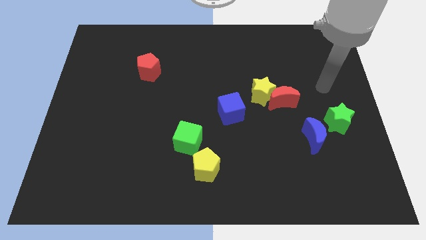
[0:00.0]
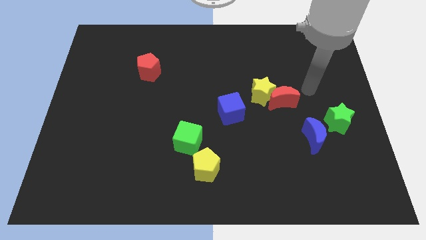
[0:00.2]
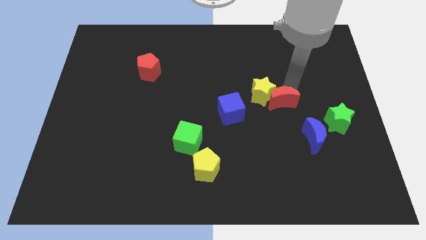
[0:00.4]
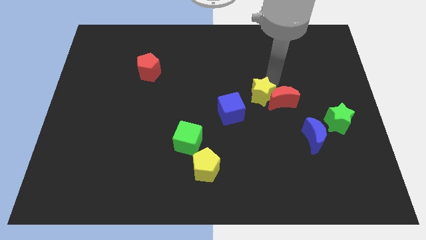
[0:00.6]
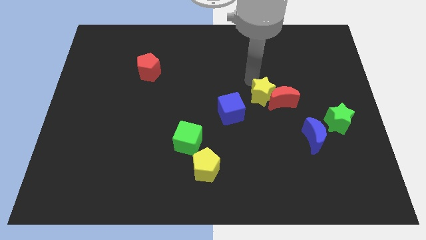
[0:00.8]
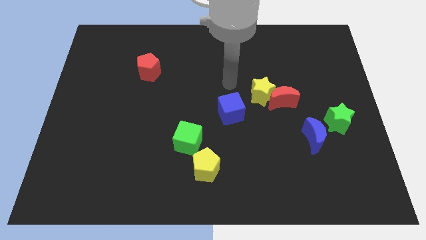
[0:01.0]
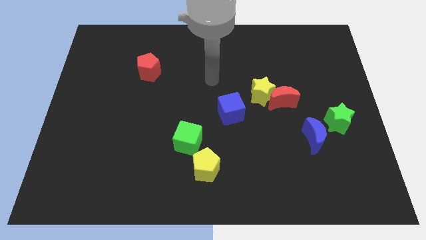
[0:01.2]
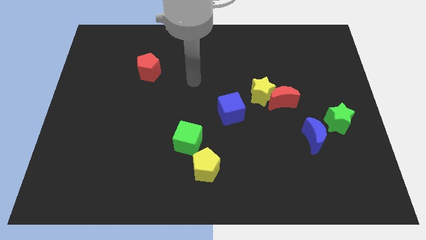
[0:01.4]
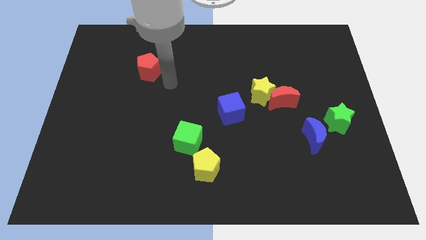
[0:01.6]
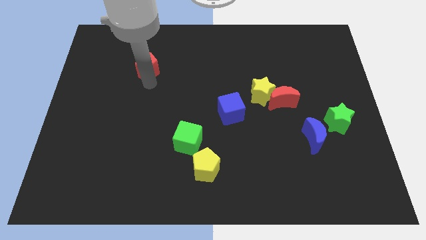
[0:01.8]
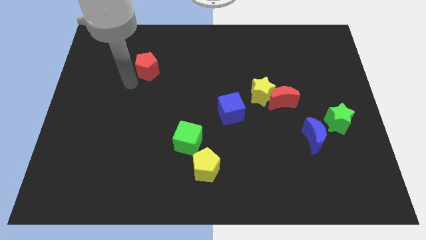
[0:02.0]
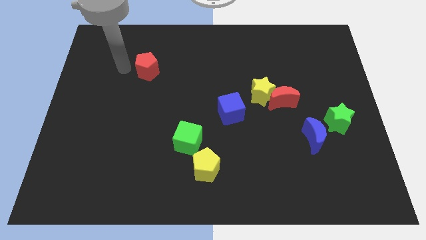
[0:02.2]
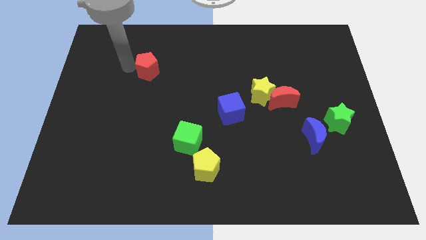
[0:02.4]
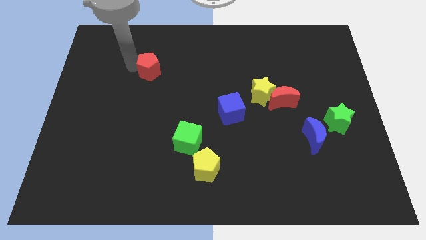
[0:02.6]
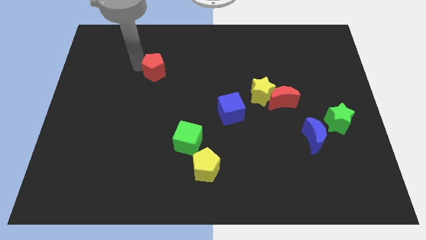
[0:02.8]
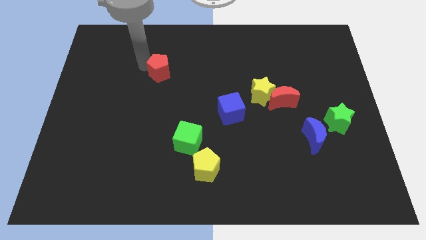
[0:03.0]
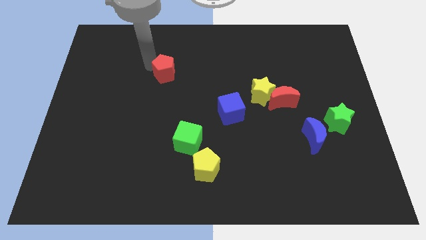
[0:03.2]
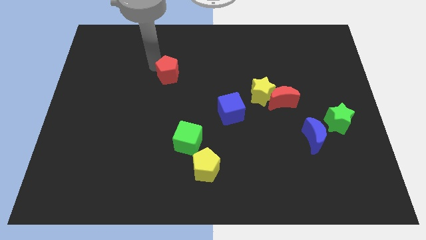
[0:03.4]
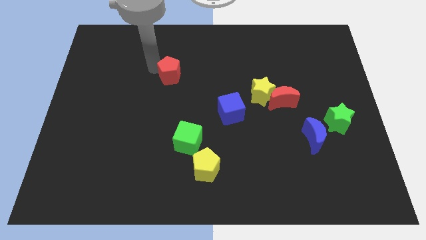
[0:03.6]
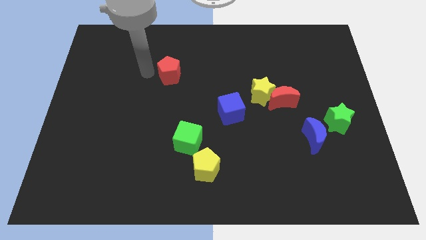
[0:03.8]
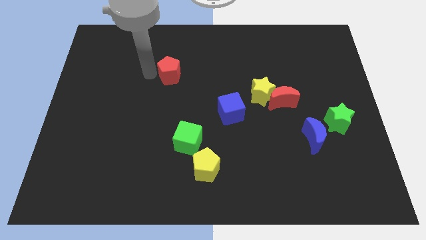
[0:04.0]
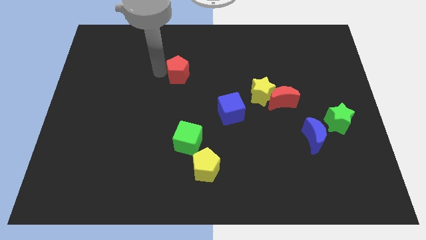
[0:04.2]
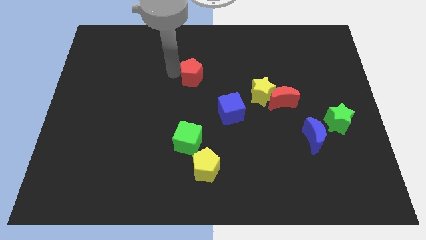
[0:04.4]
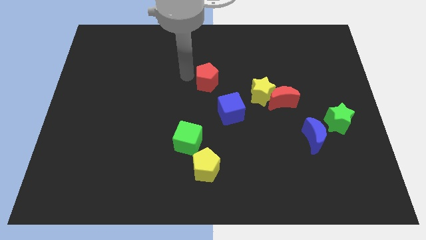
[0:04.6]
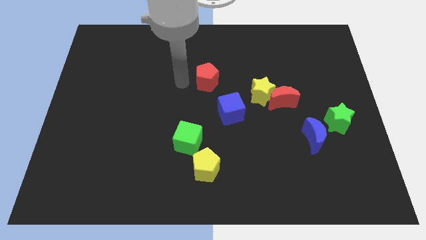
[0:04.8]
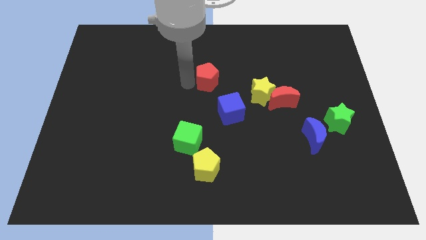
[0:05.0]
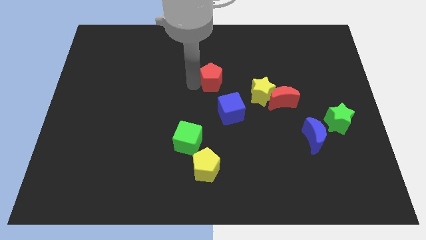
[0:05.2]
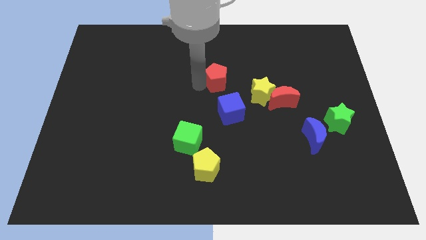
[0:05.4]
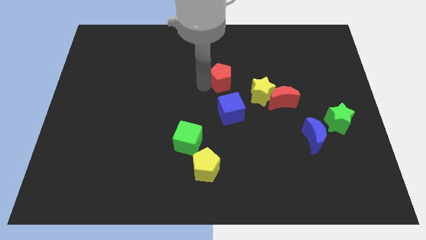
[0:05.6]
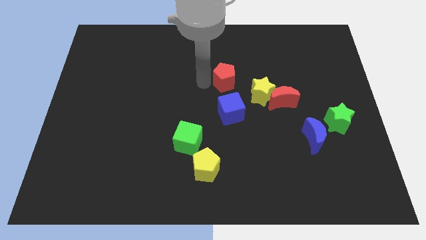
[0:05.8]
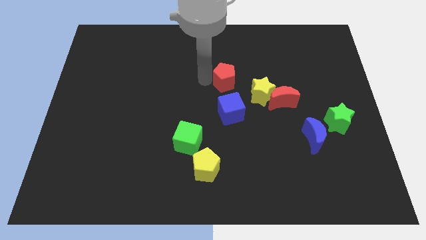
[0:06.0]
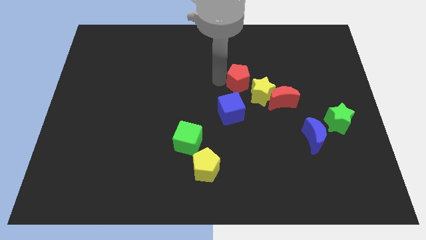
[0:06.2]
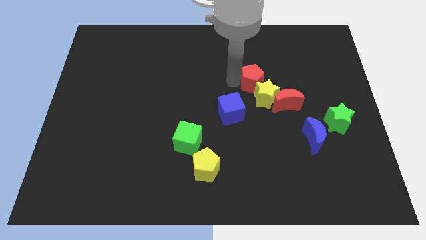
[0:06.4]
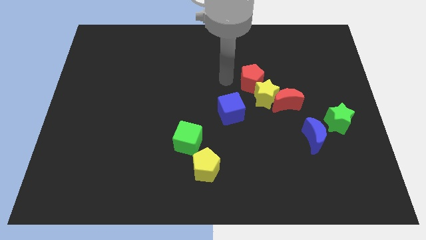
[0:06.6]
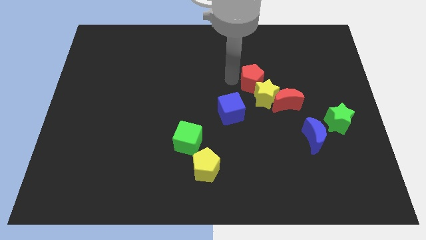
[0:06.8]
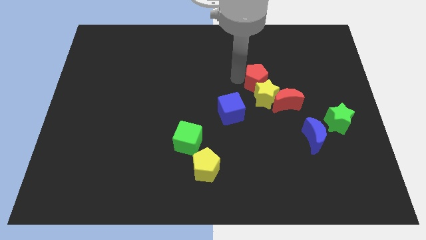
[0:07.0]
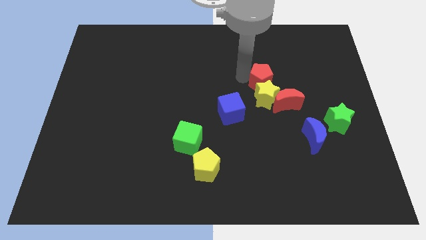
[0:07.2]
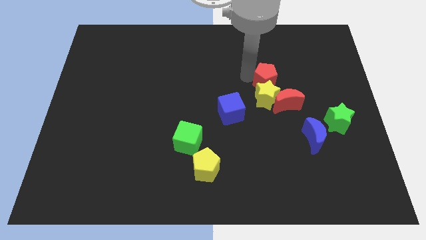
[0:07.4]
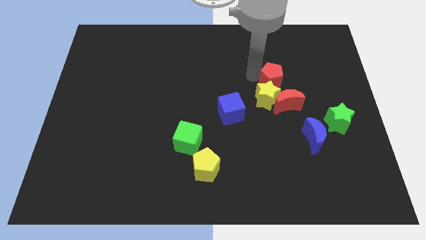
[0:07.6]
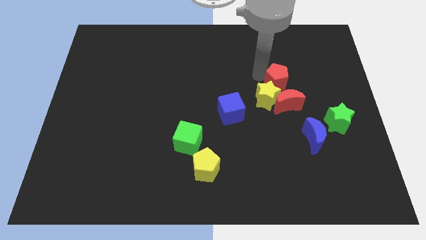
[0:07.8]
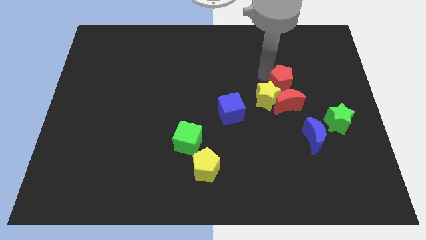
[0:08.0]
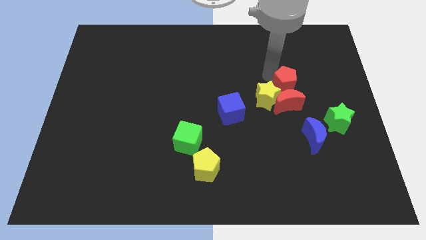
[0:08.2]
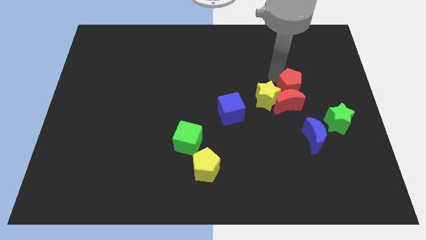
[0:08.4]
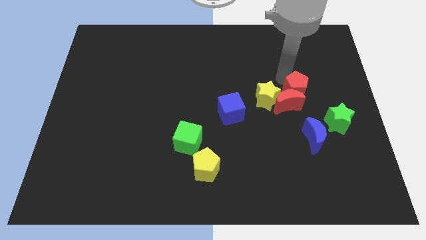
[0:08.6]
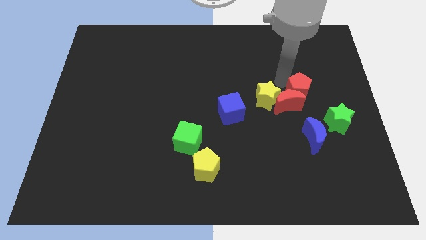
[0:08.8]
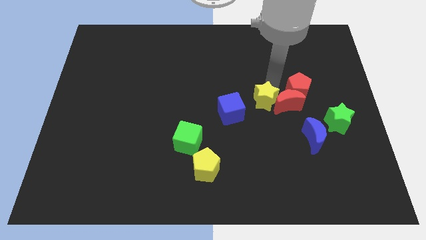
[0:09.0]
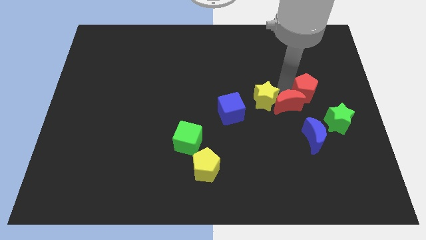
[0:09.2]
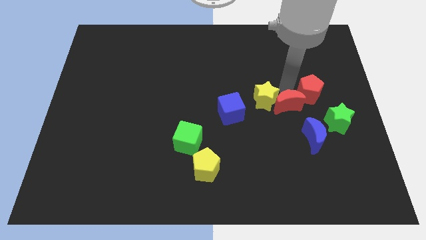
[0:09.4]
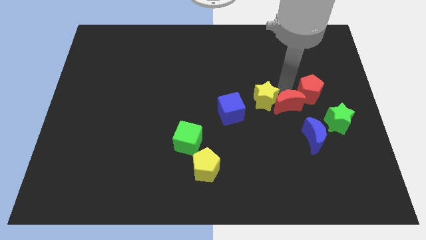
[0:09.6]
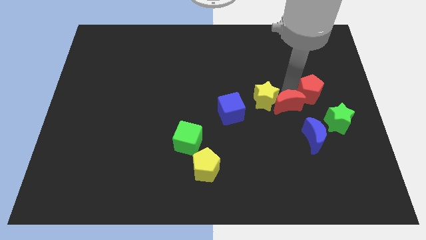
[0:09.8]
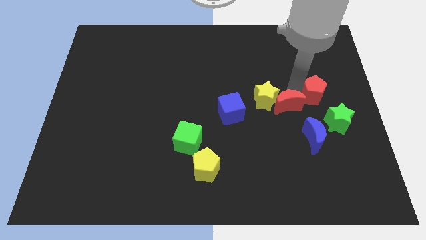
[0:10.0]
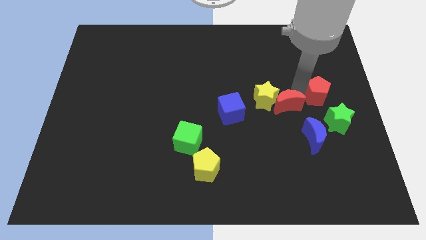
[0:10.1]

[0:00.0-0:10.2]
move the red pentagon to the center right

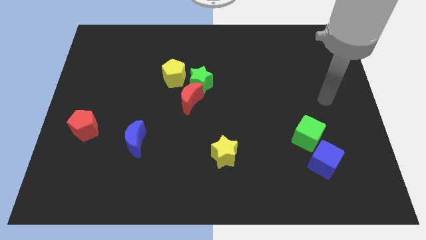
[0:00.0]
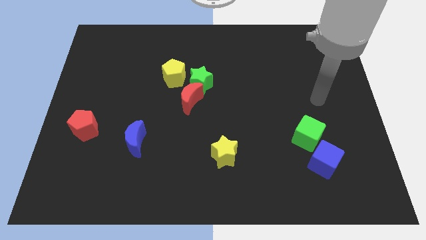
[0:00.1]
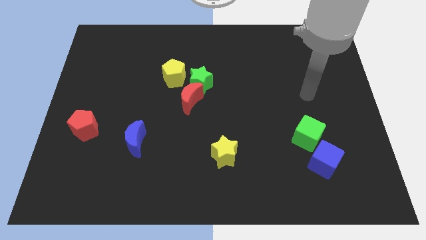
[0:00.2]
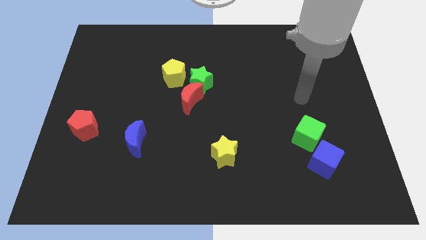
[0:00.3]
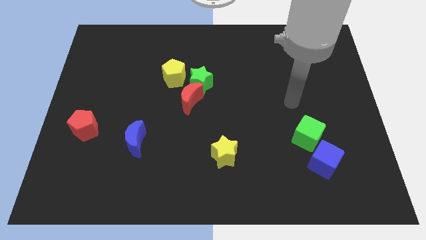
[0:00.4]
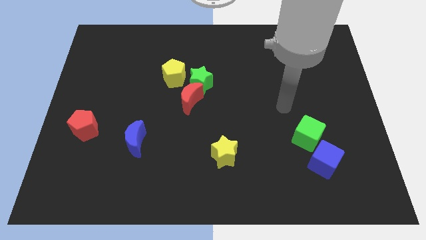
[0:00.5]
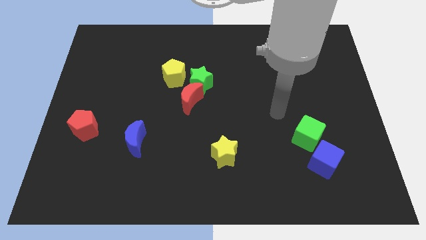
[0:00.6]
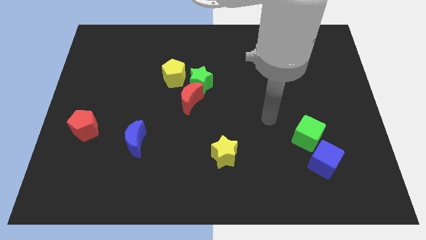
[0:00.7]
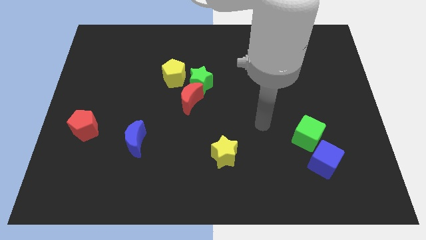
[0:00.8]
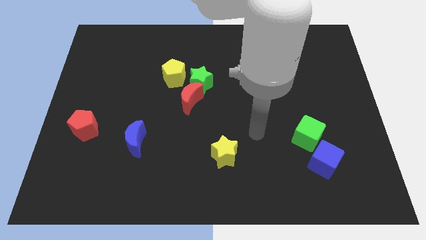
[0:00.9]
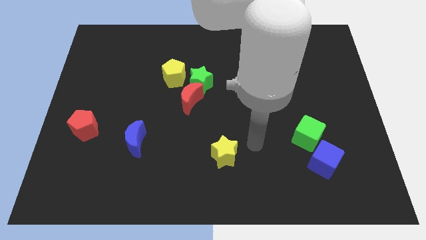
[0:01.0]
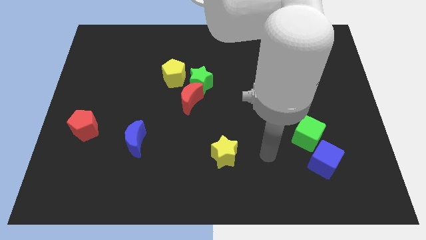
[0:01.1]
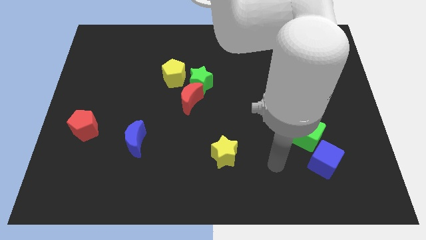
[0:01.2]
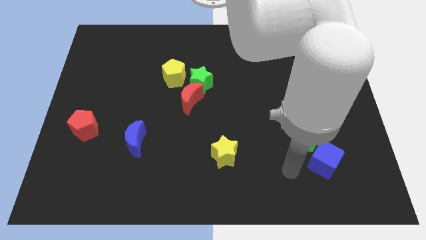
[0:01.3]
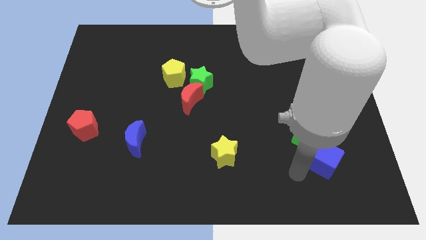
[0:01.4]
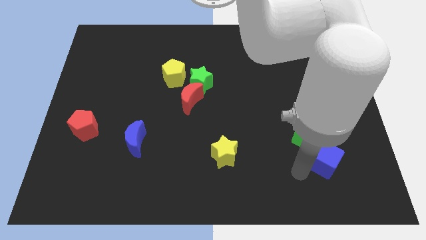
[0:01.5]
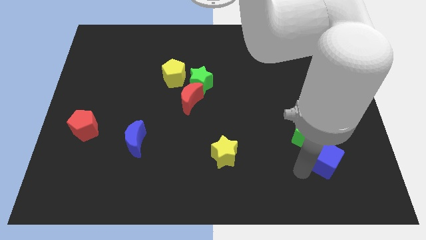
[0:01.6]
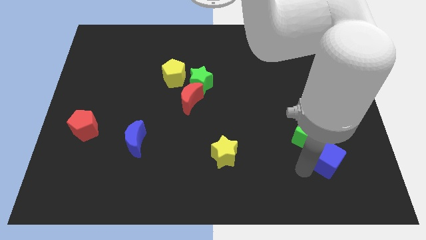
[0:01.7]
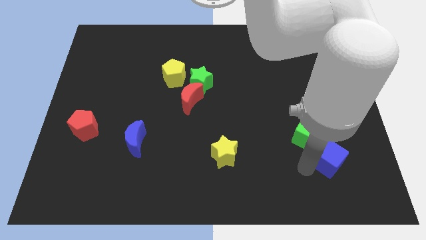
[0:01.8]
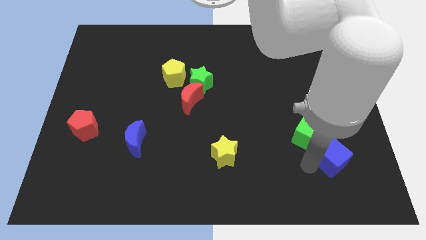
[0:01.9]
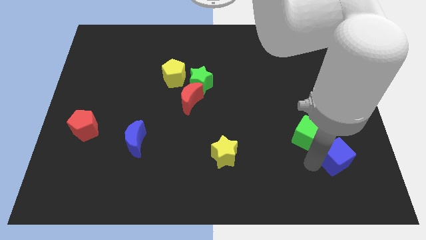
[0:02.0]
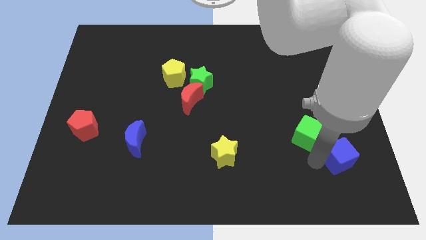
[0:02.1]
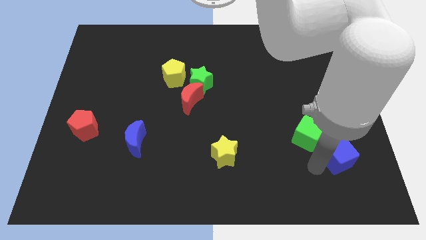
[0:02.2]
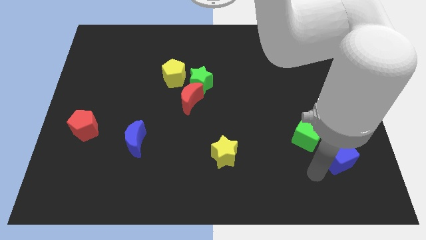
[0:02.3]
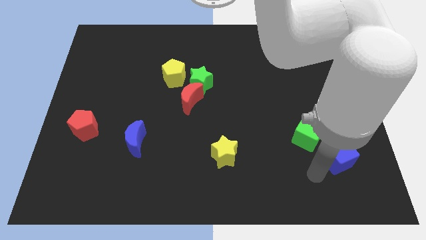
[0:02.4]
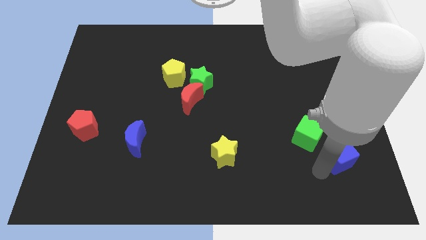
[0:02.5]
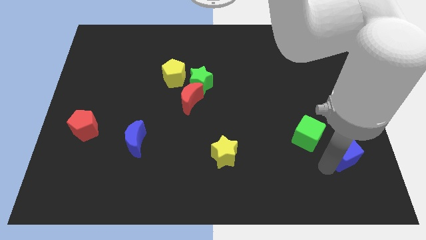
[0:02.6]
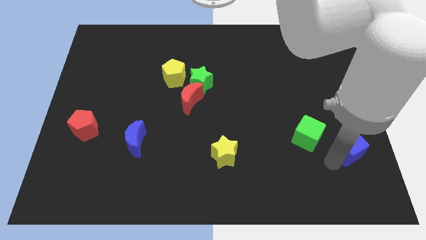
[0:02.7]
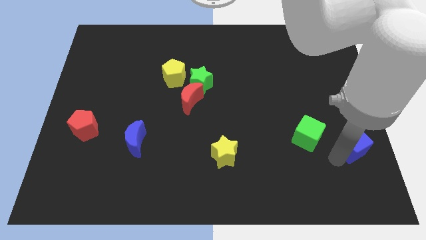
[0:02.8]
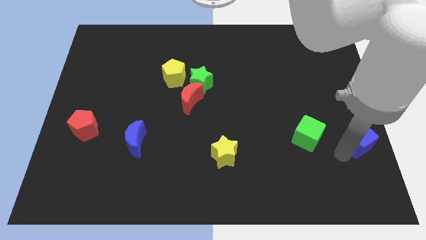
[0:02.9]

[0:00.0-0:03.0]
slide the blue cube to the right side of the board
